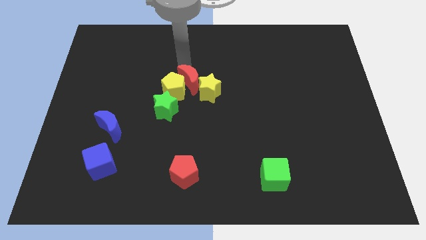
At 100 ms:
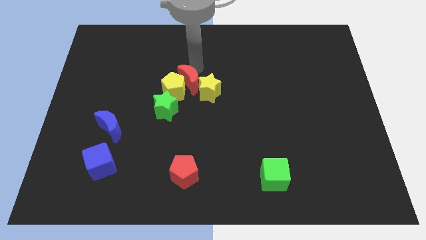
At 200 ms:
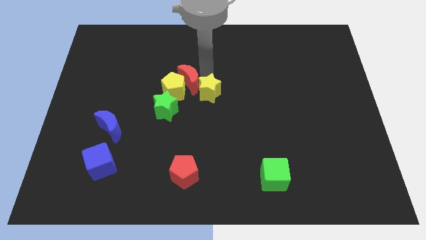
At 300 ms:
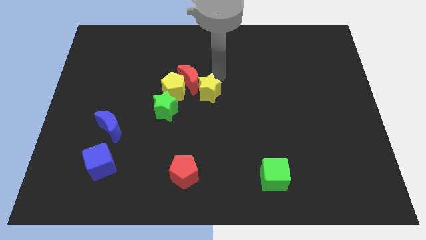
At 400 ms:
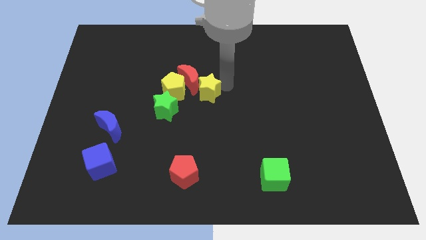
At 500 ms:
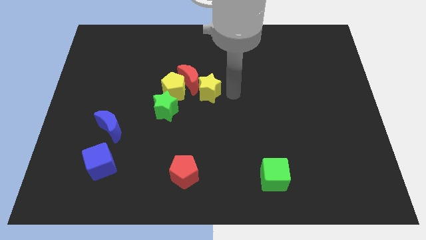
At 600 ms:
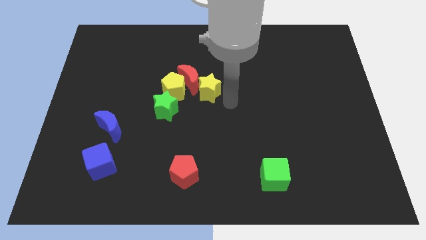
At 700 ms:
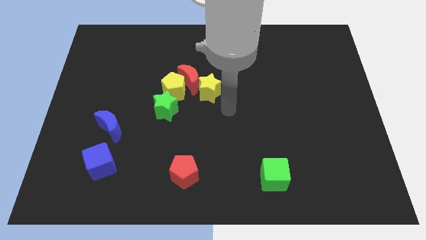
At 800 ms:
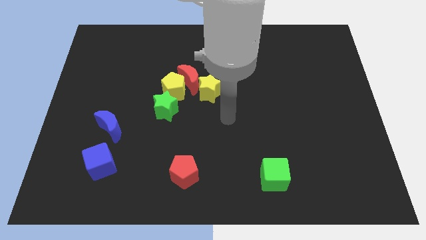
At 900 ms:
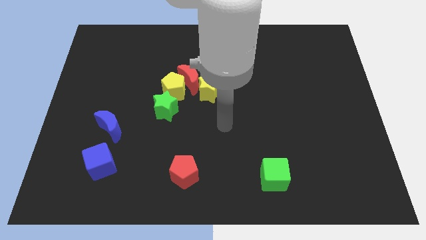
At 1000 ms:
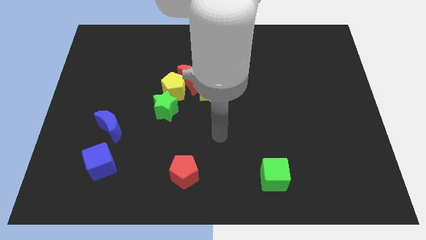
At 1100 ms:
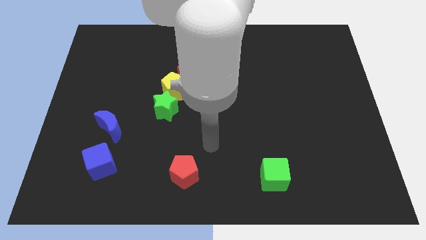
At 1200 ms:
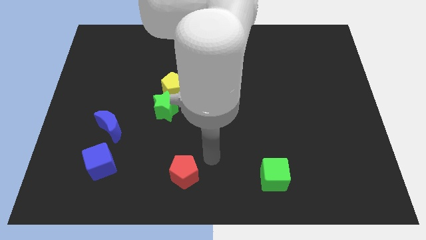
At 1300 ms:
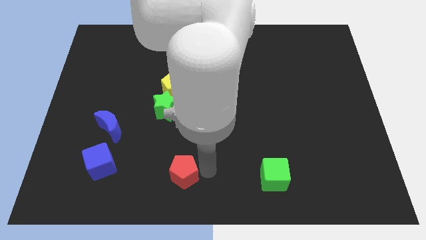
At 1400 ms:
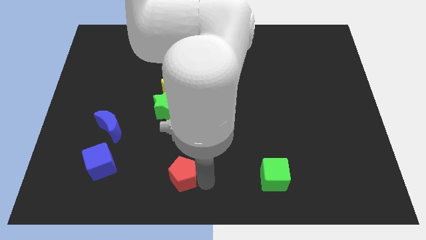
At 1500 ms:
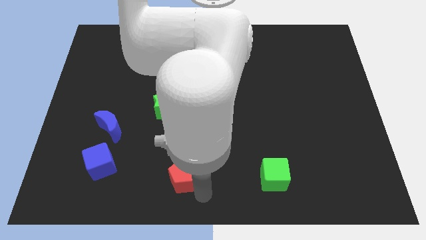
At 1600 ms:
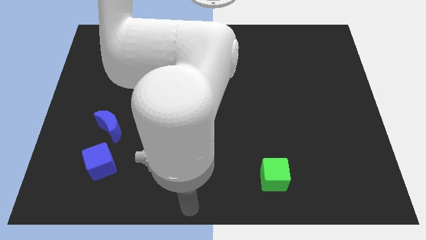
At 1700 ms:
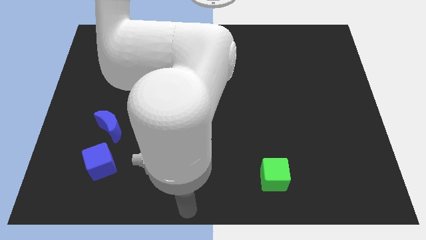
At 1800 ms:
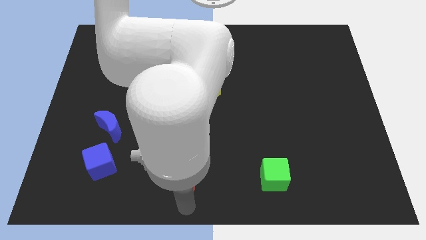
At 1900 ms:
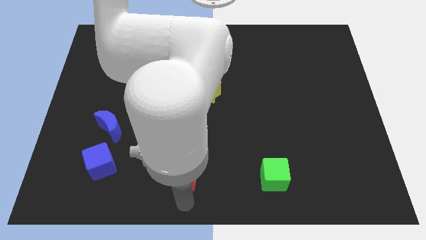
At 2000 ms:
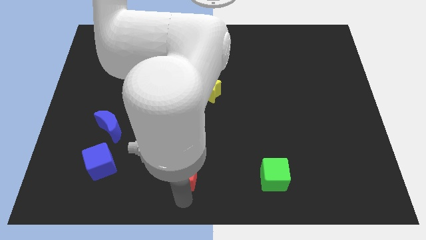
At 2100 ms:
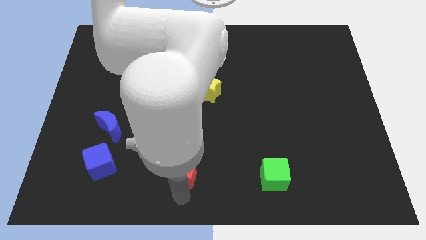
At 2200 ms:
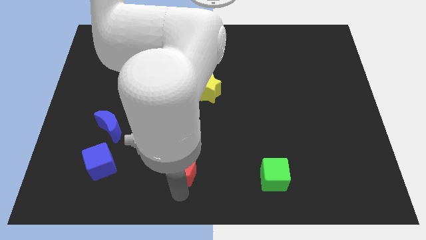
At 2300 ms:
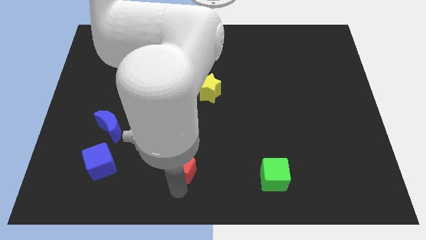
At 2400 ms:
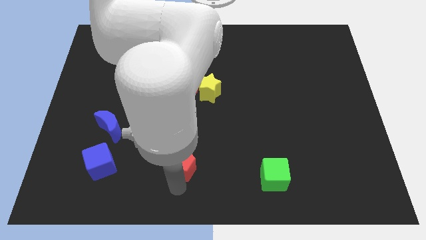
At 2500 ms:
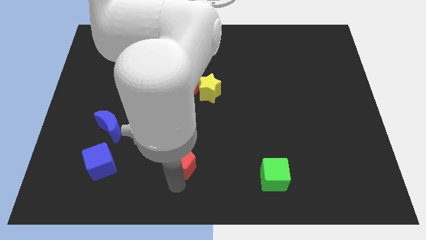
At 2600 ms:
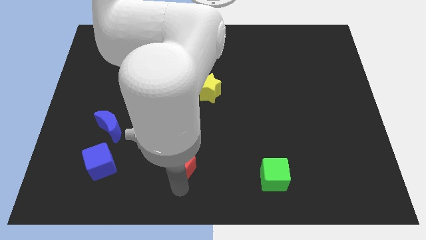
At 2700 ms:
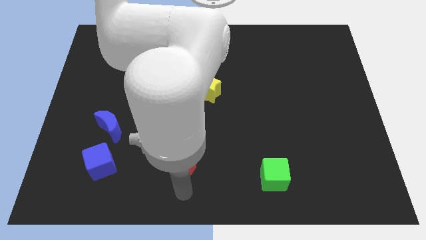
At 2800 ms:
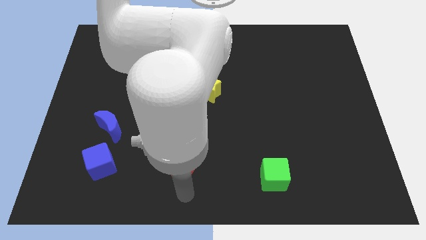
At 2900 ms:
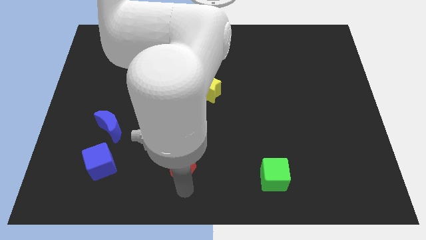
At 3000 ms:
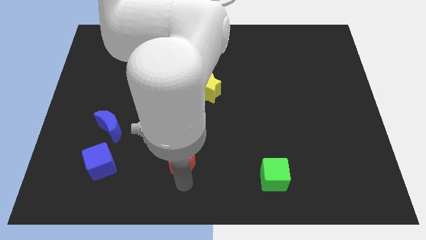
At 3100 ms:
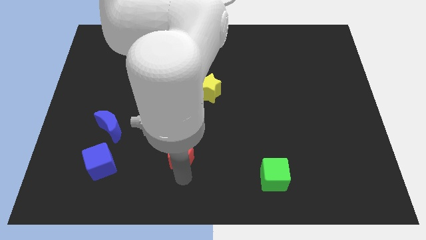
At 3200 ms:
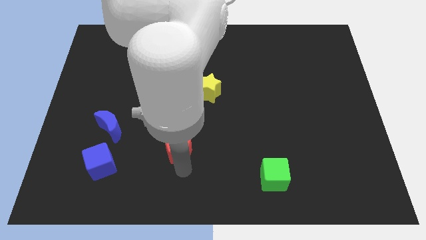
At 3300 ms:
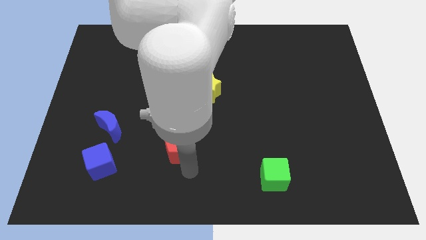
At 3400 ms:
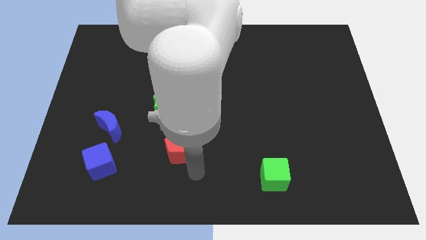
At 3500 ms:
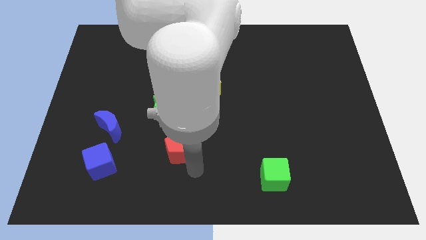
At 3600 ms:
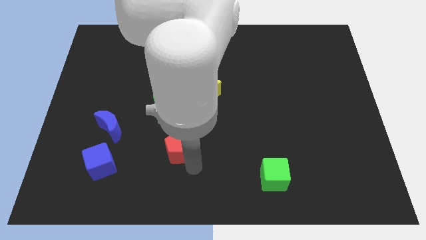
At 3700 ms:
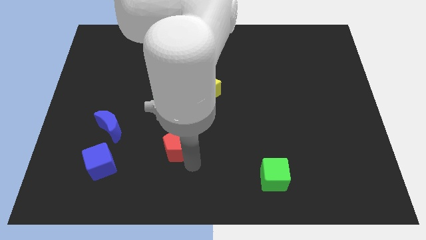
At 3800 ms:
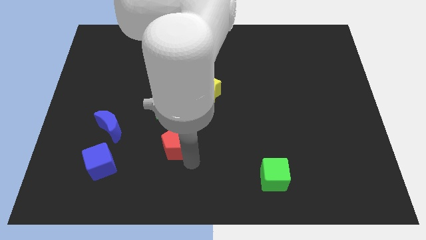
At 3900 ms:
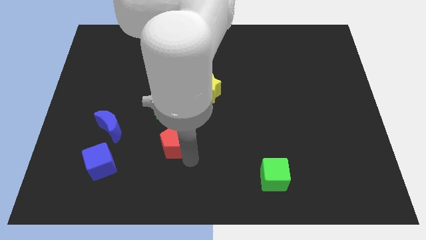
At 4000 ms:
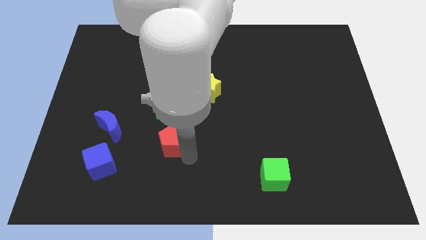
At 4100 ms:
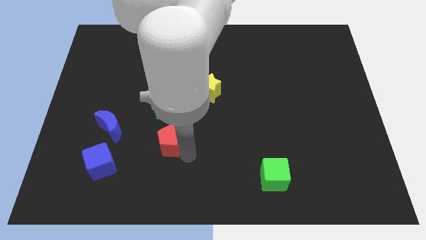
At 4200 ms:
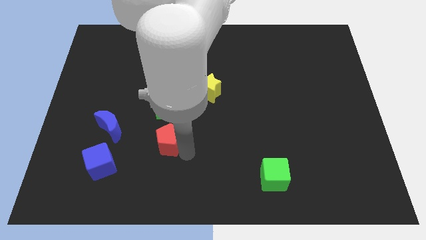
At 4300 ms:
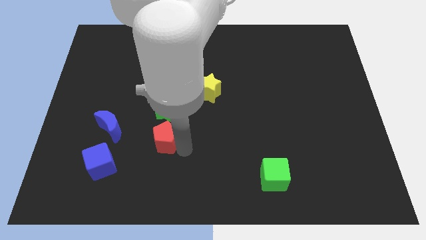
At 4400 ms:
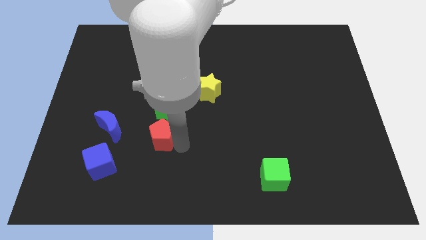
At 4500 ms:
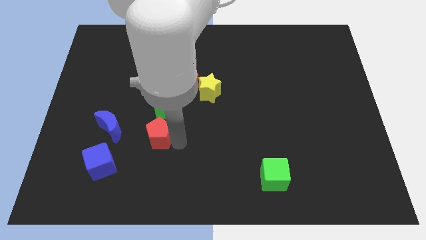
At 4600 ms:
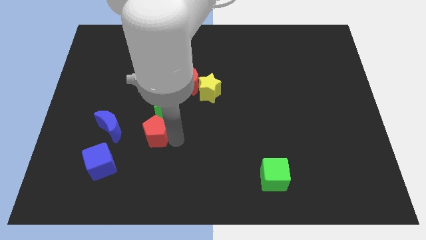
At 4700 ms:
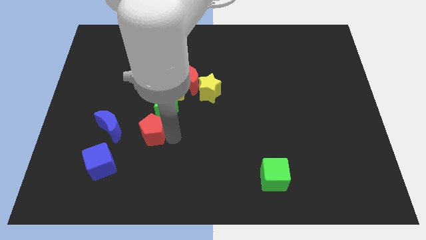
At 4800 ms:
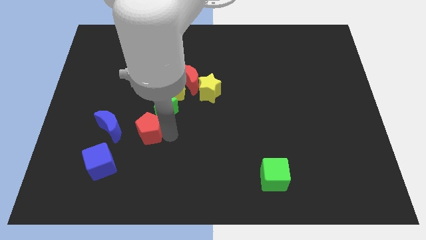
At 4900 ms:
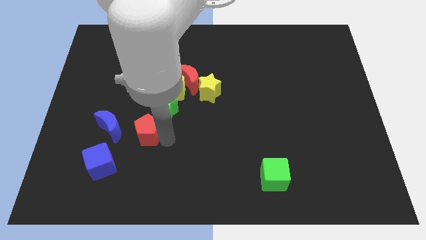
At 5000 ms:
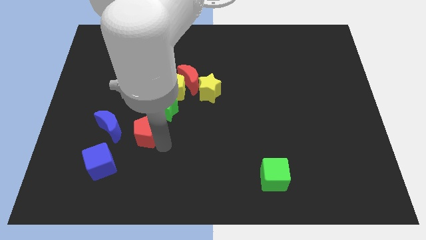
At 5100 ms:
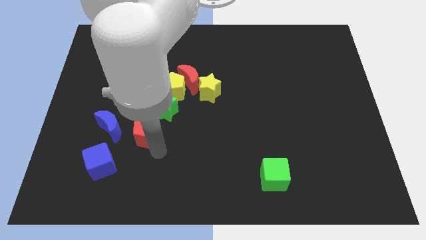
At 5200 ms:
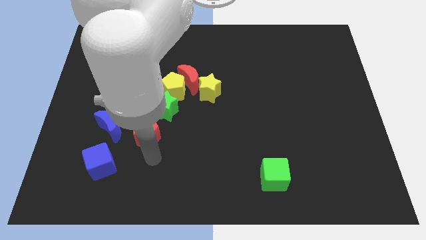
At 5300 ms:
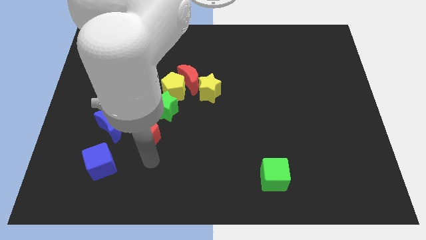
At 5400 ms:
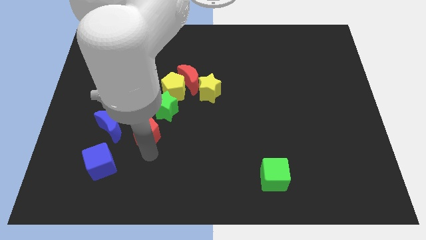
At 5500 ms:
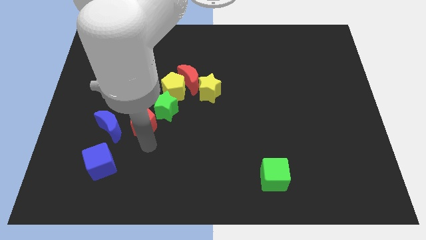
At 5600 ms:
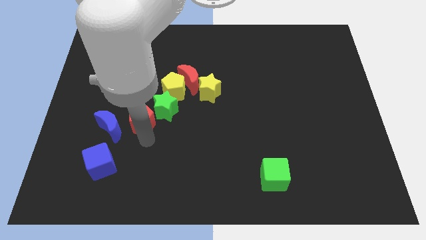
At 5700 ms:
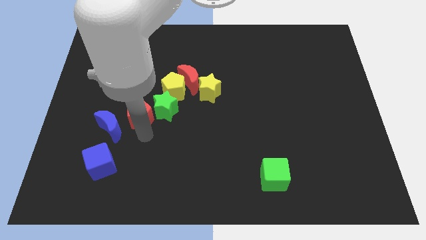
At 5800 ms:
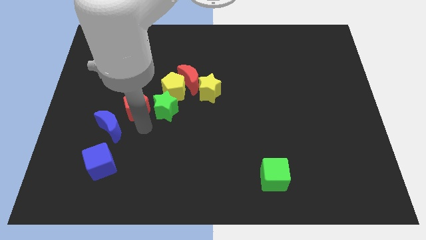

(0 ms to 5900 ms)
move the red pentagon to the top of the blue moon

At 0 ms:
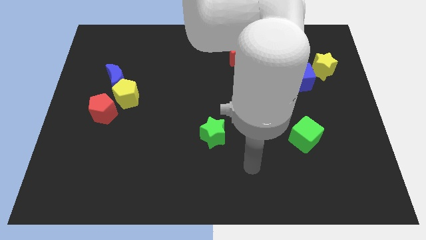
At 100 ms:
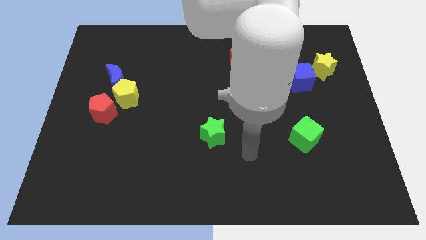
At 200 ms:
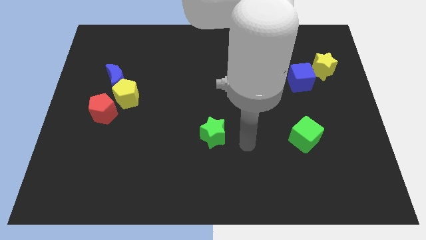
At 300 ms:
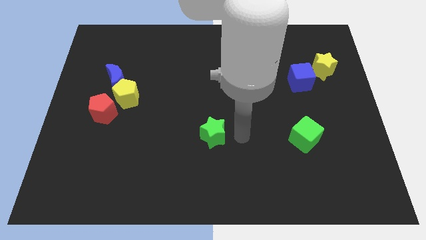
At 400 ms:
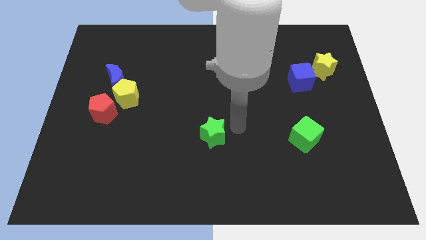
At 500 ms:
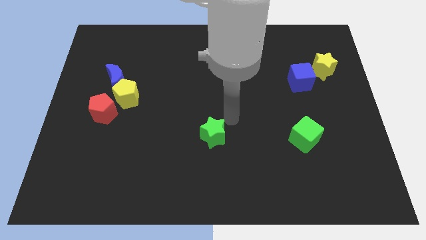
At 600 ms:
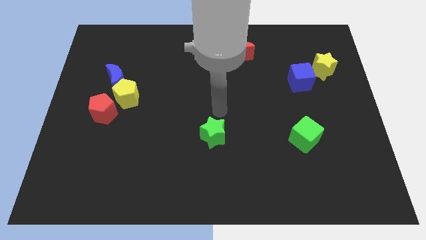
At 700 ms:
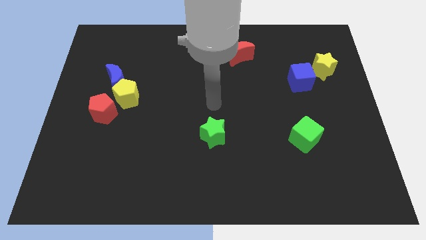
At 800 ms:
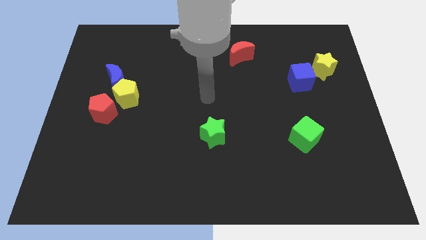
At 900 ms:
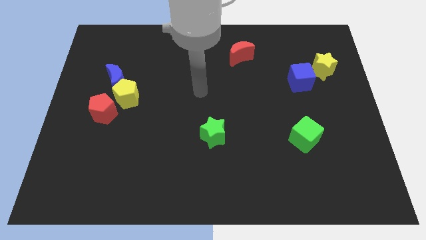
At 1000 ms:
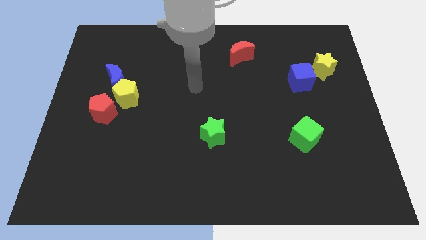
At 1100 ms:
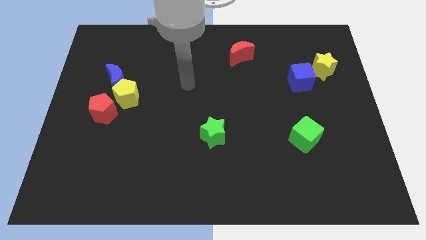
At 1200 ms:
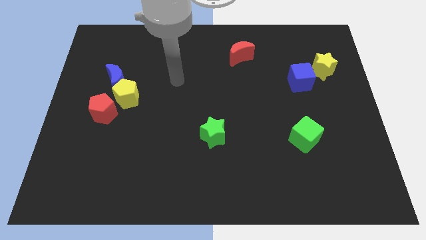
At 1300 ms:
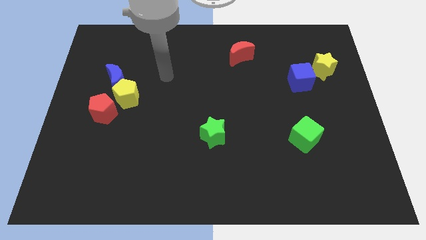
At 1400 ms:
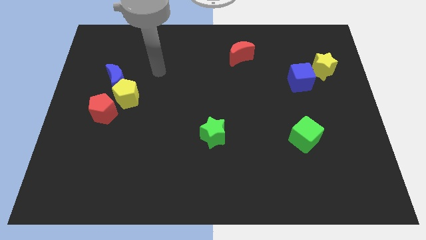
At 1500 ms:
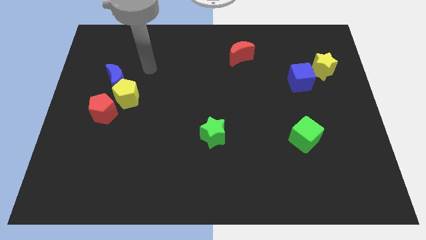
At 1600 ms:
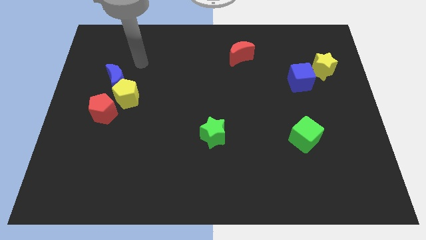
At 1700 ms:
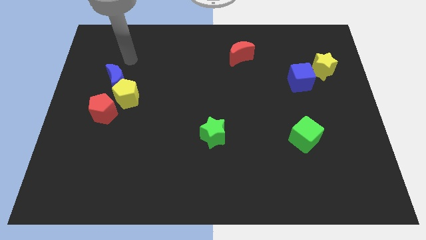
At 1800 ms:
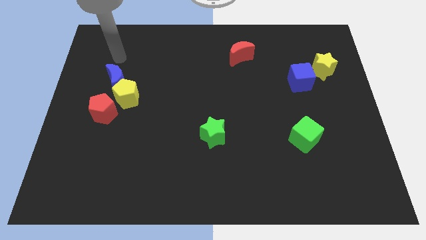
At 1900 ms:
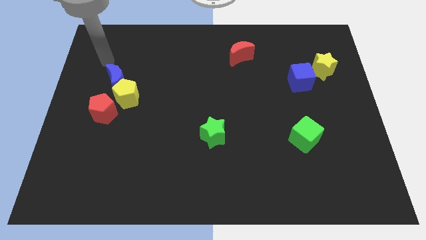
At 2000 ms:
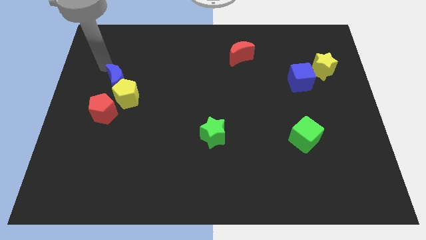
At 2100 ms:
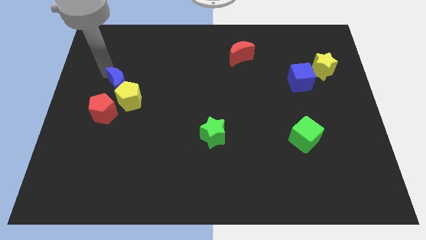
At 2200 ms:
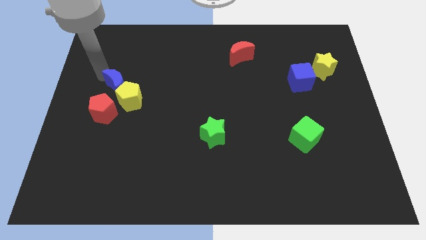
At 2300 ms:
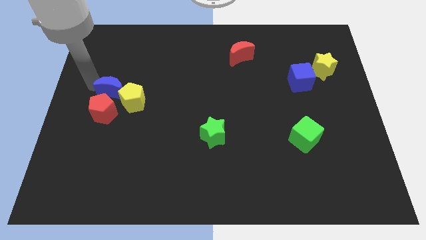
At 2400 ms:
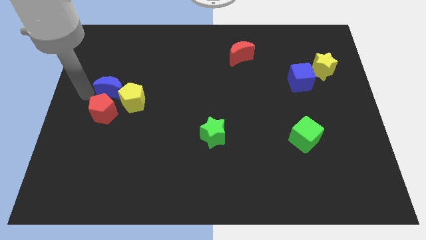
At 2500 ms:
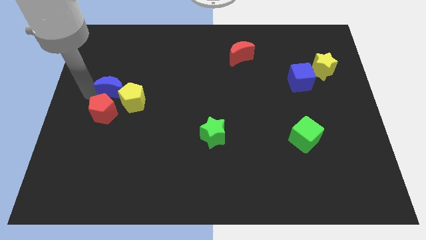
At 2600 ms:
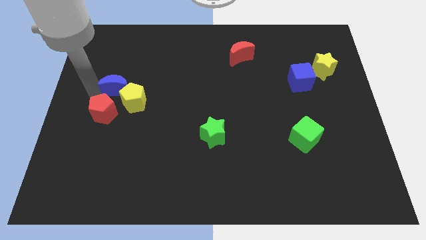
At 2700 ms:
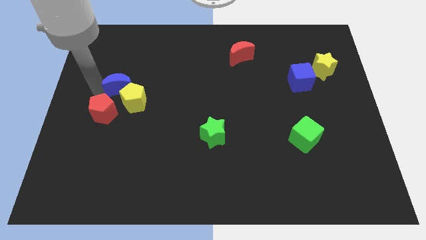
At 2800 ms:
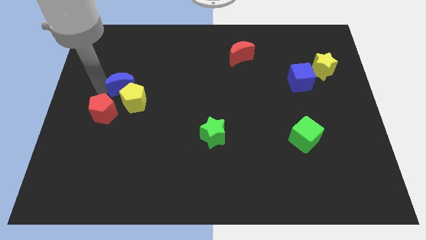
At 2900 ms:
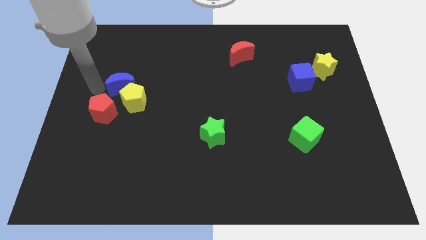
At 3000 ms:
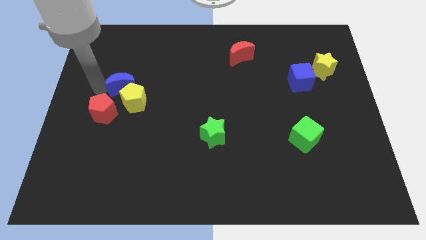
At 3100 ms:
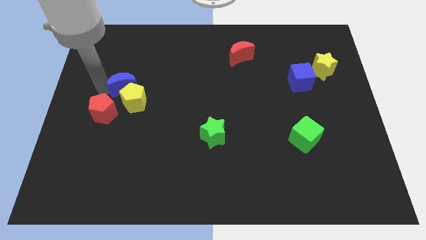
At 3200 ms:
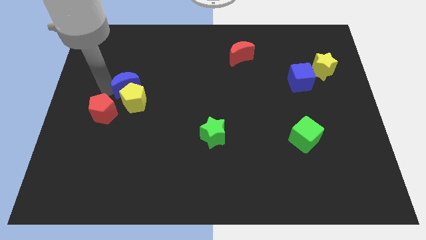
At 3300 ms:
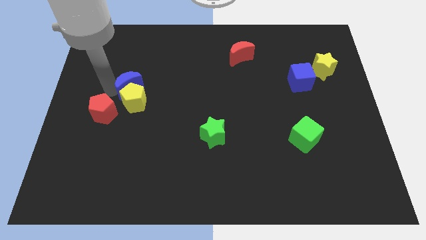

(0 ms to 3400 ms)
move the blue moon to the top right side of the yellow pentagon
